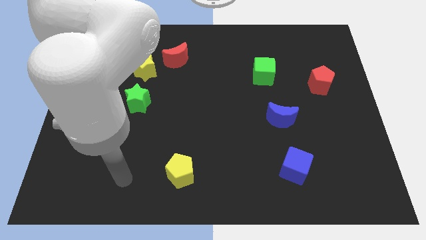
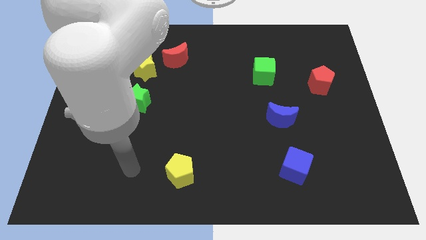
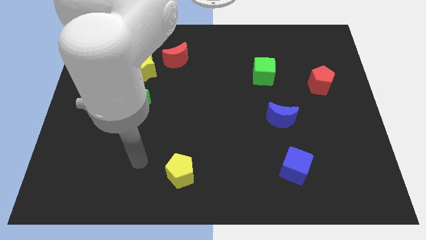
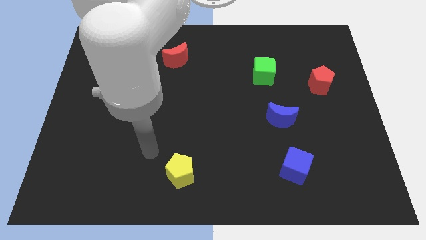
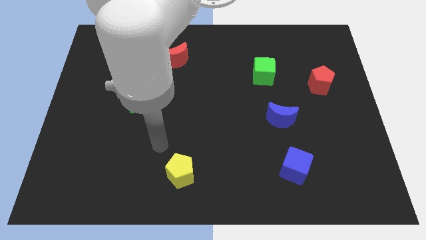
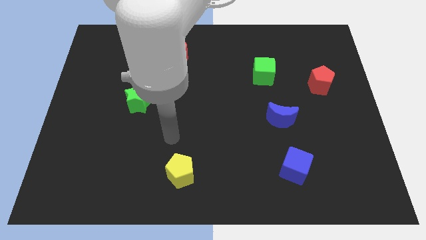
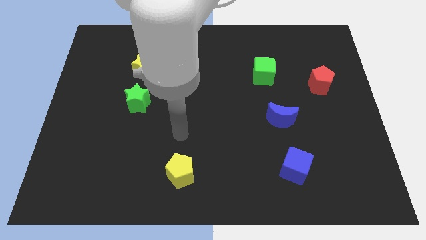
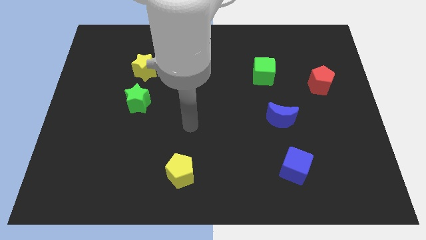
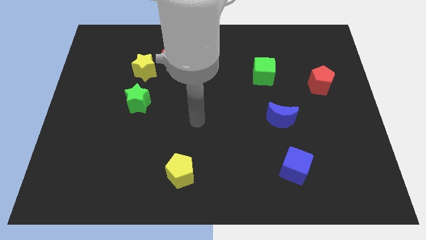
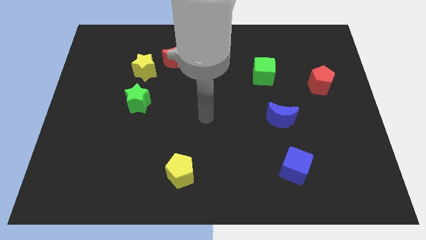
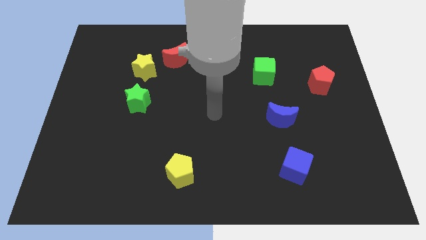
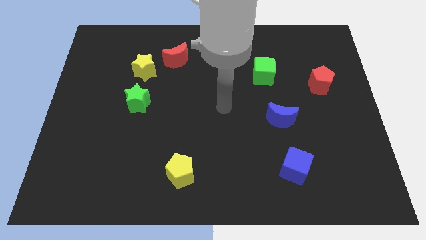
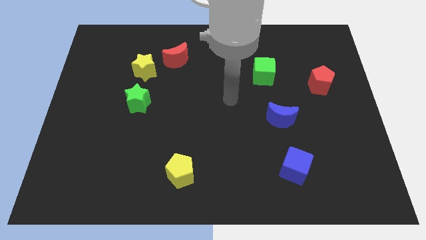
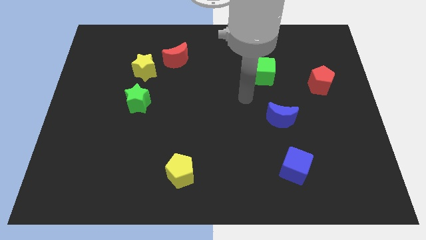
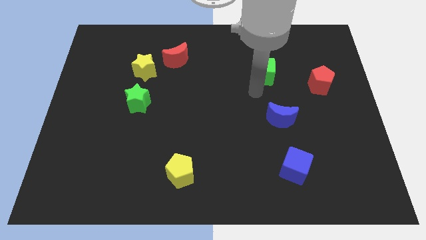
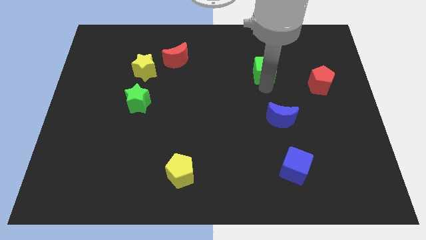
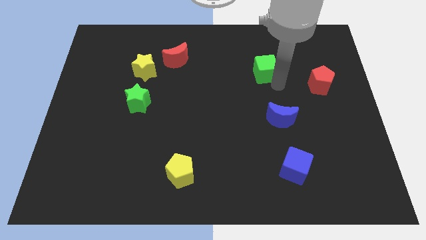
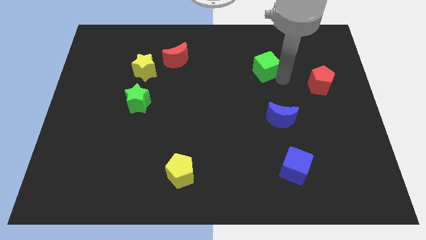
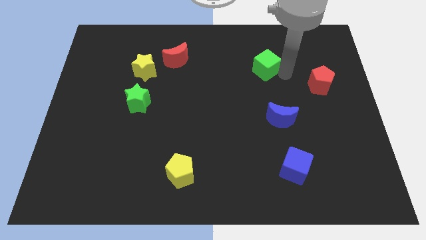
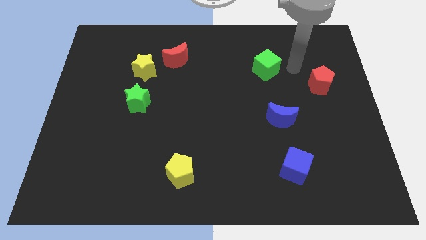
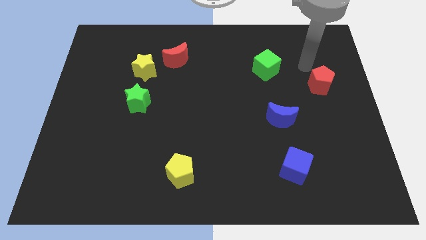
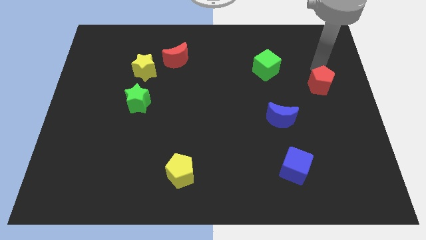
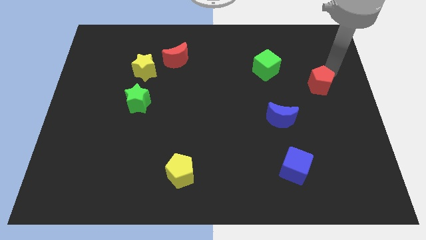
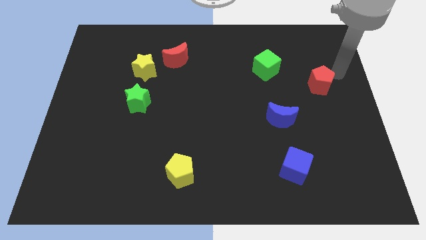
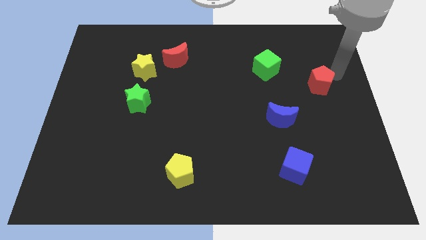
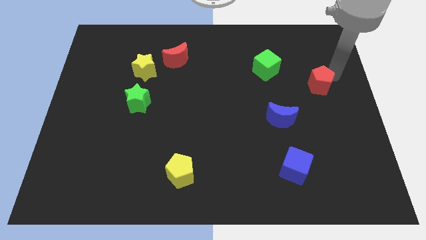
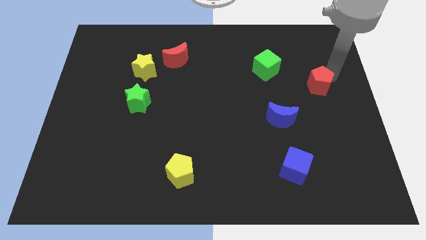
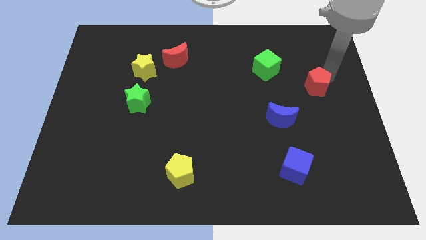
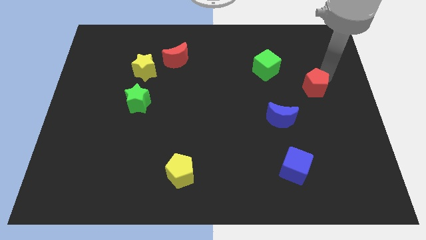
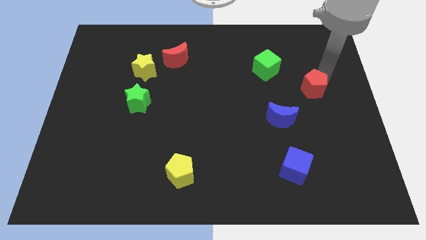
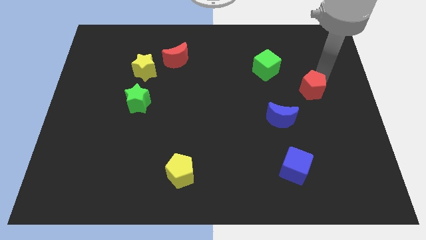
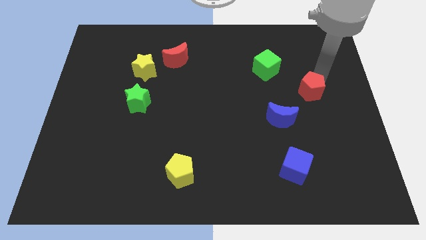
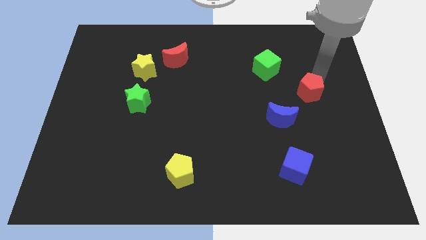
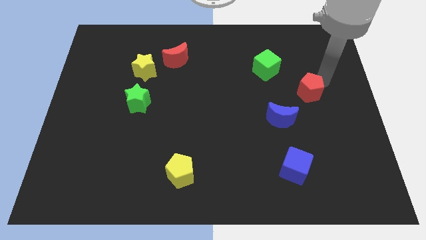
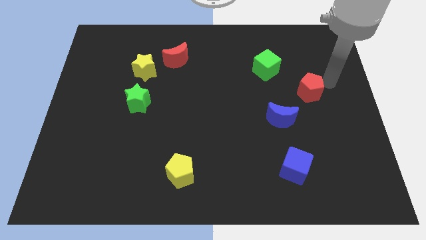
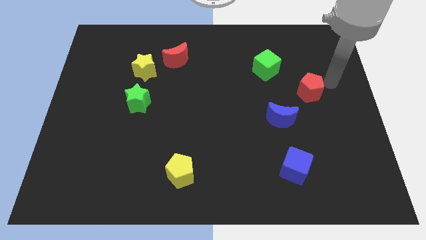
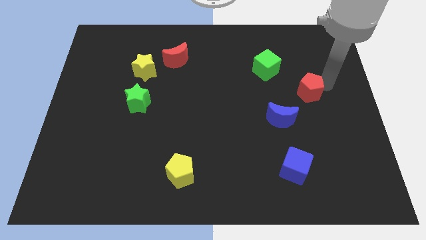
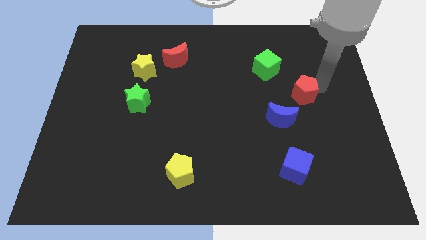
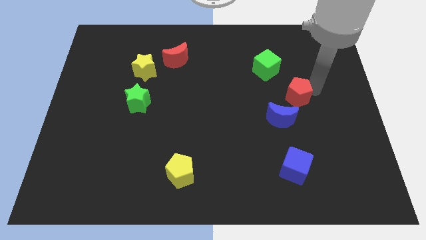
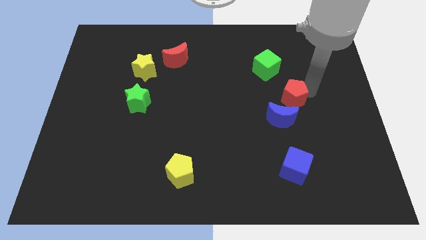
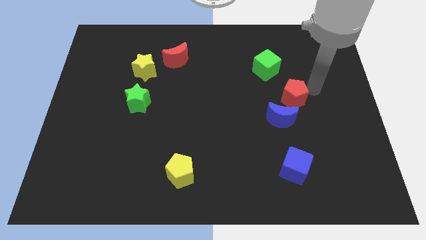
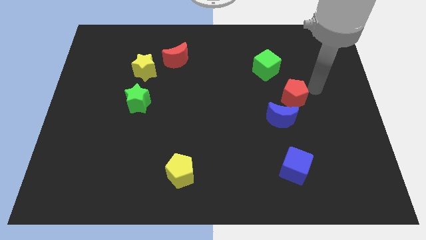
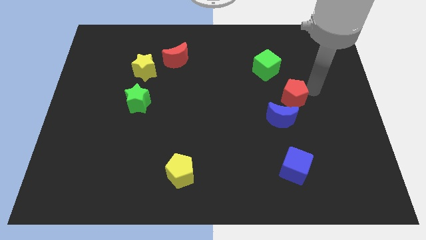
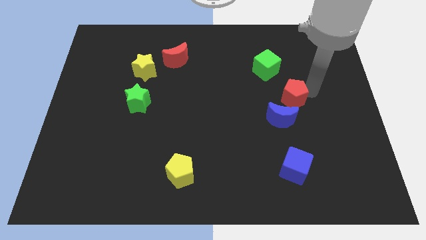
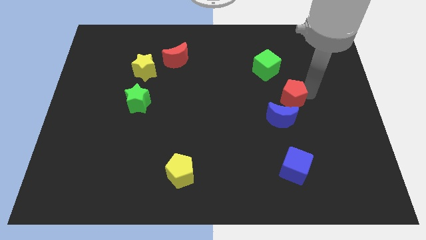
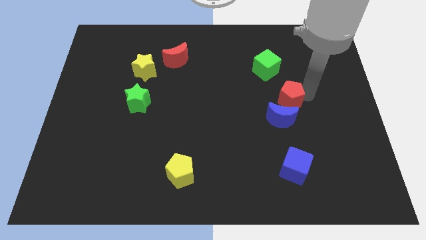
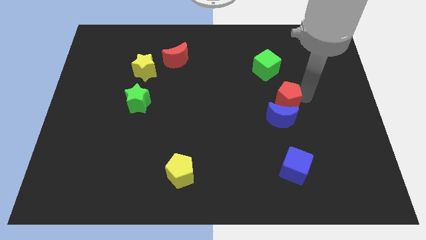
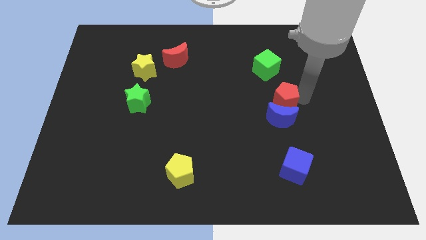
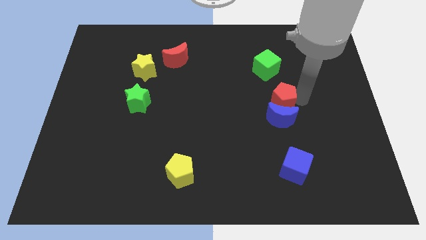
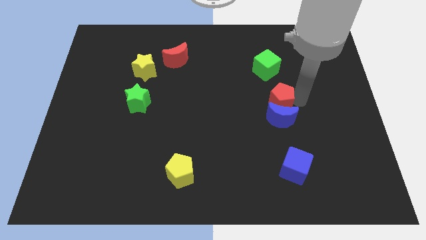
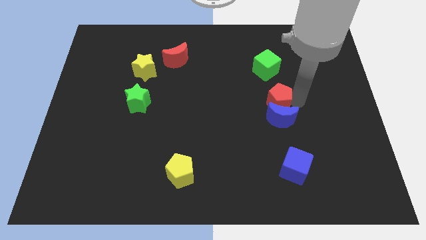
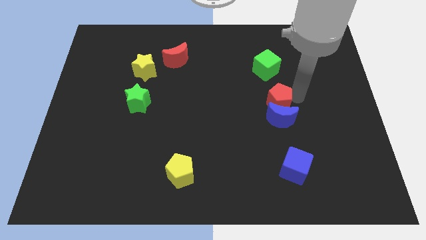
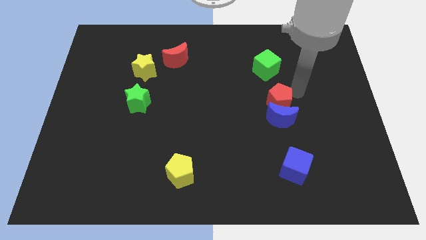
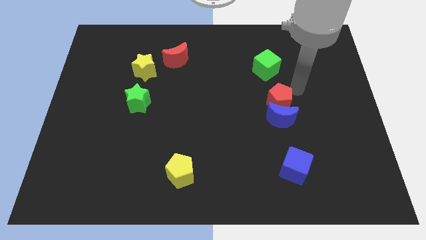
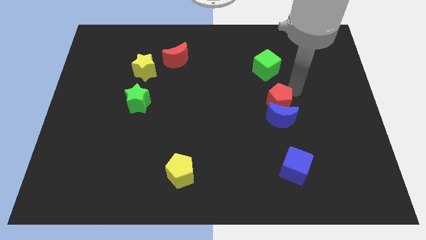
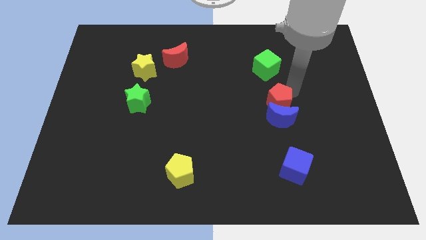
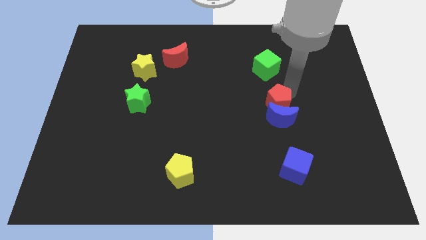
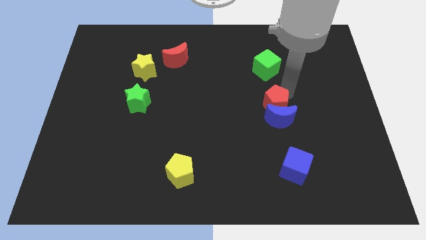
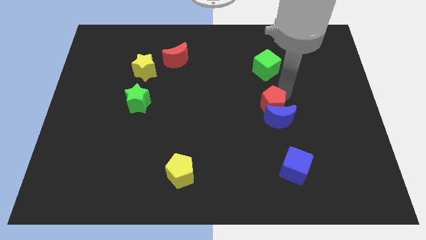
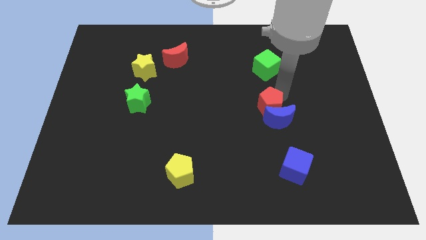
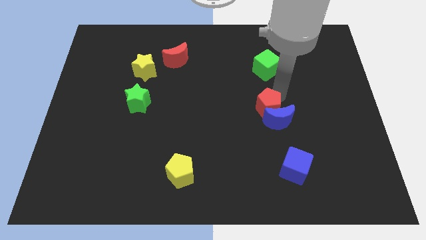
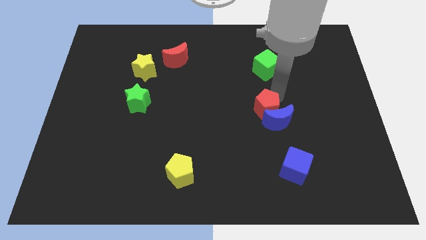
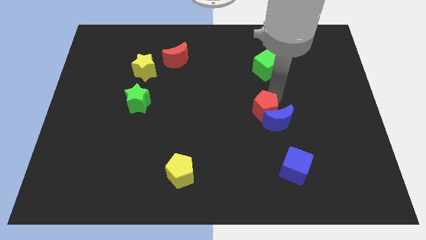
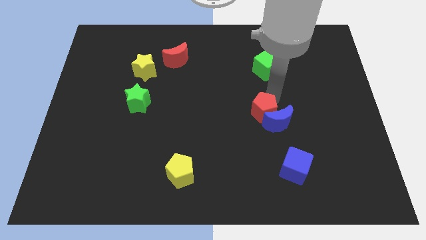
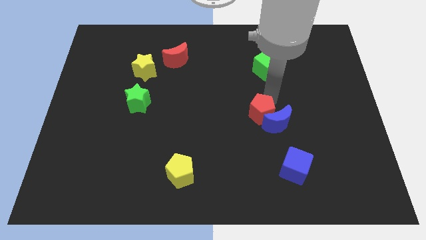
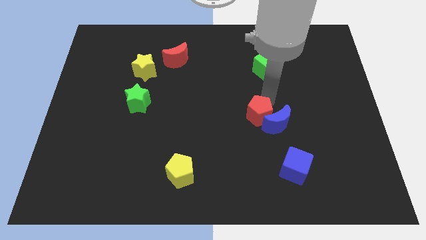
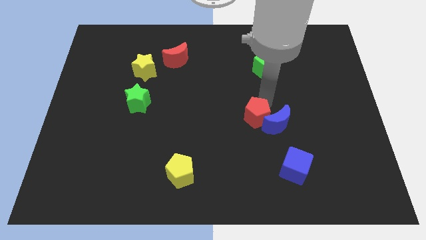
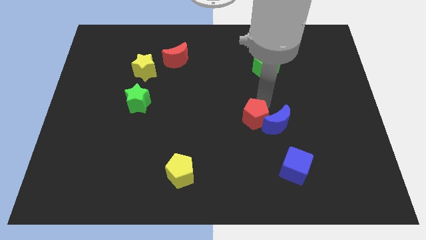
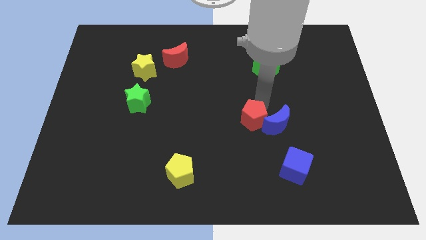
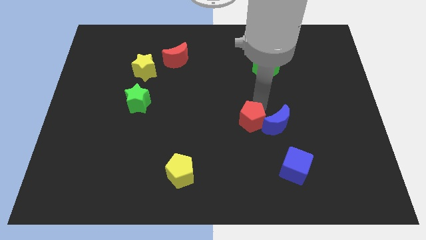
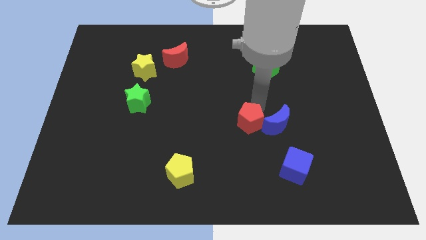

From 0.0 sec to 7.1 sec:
slide the red pentagon diagonally downwards and left

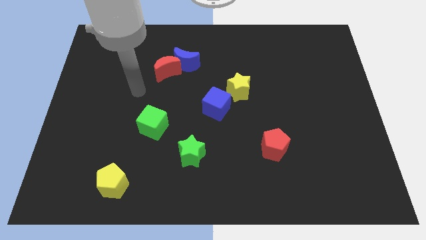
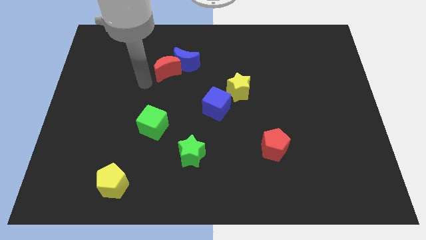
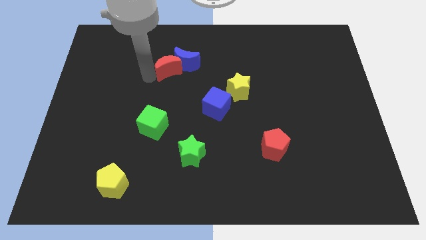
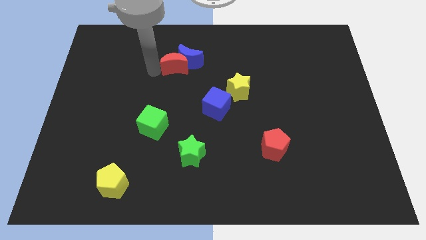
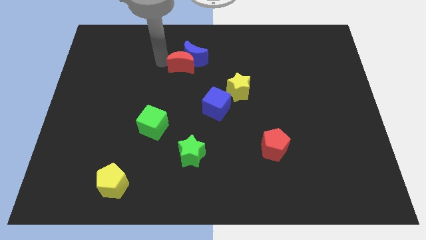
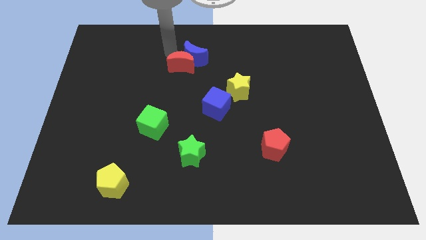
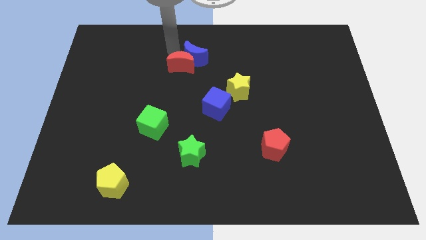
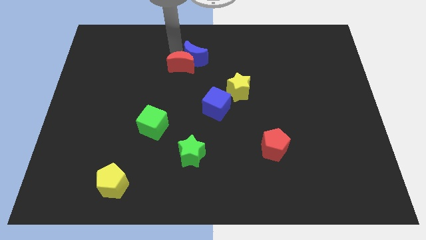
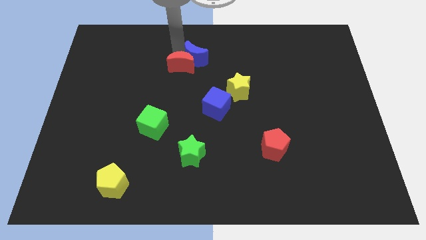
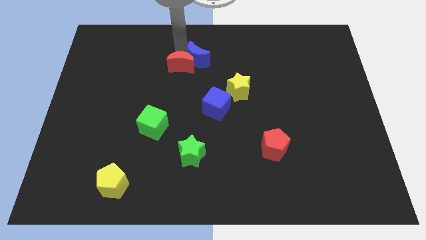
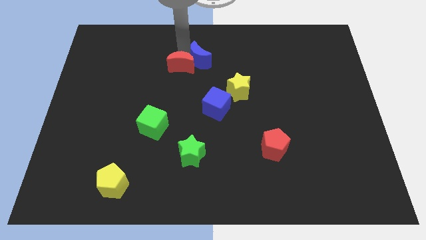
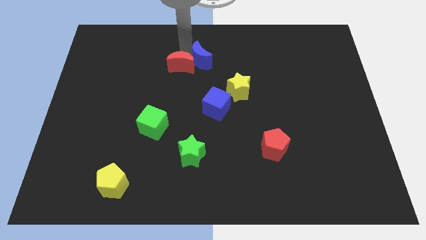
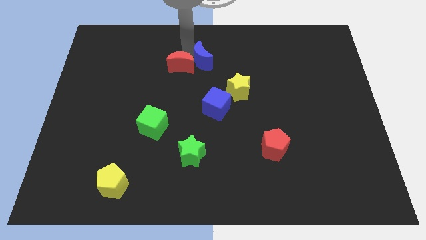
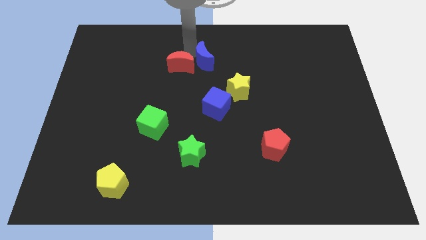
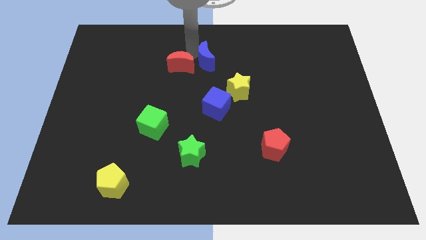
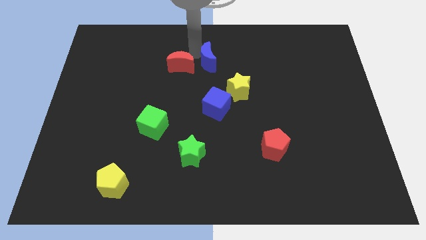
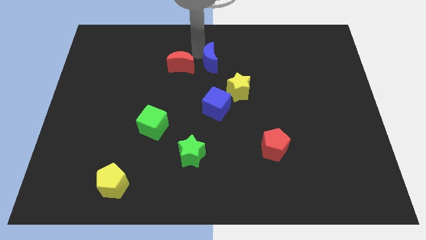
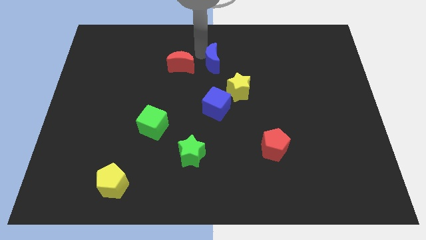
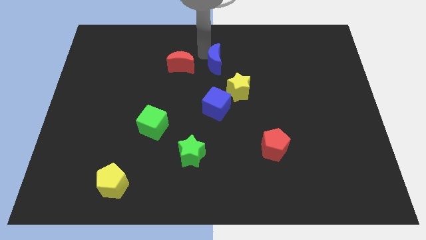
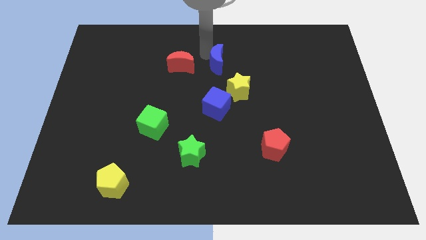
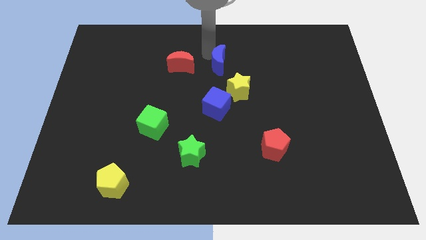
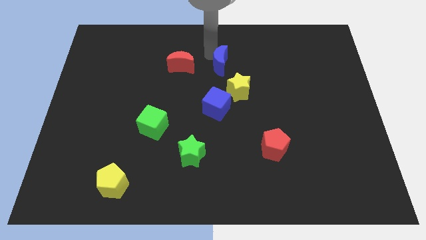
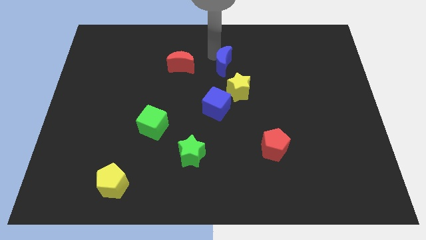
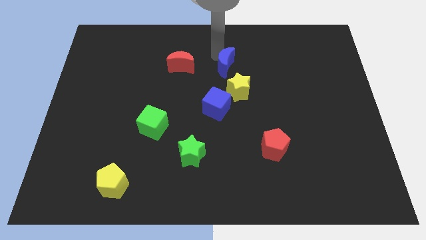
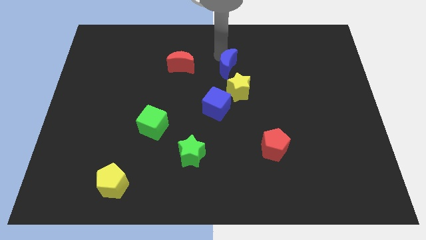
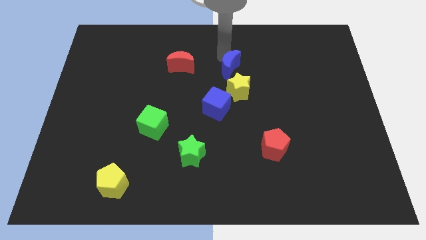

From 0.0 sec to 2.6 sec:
slightly move the blue moon diagonally downwards and to the right
